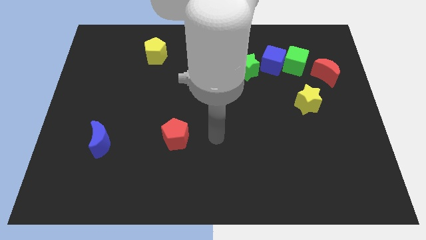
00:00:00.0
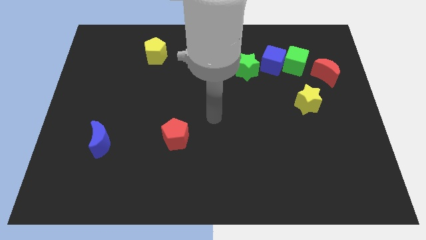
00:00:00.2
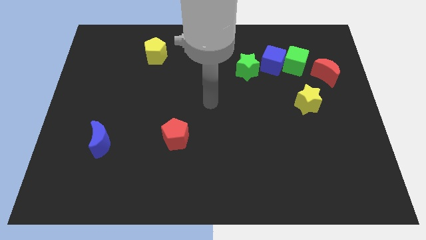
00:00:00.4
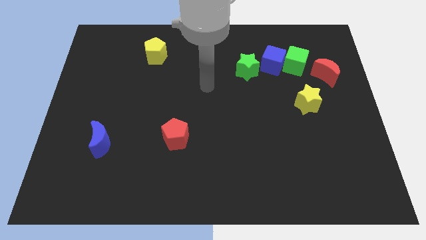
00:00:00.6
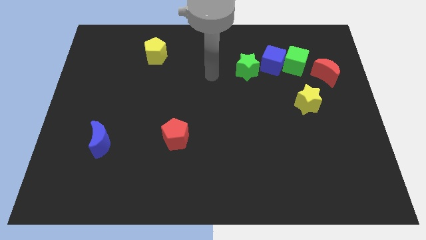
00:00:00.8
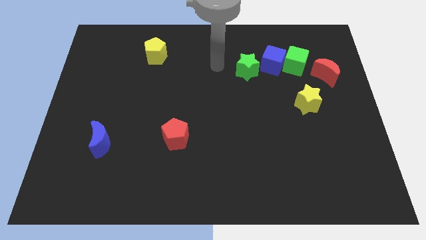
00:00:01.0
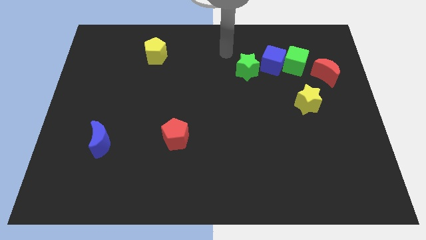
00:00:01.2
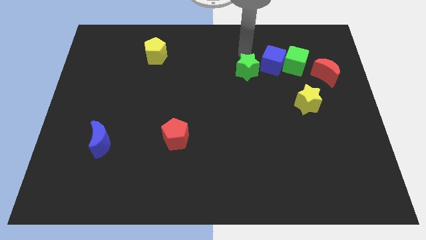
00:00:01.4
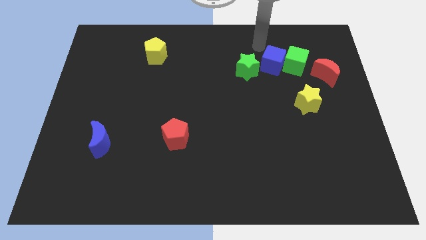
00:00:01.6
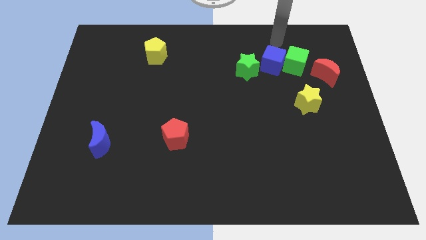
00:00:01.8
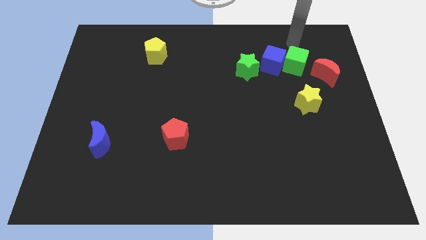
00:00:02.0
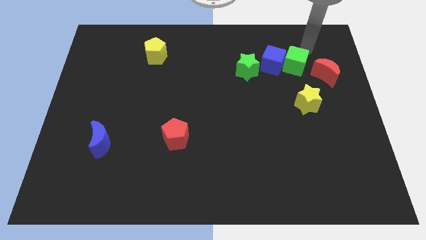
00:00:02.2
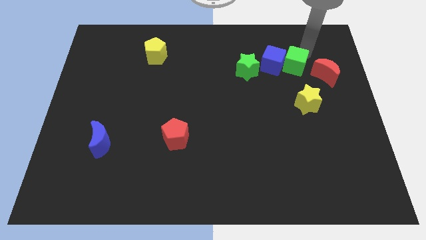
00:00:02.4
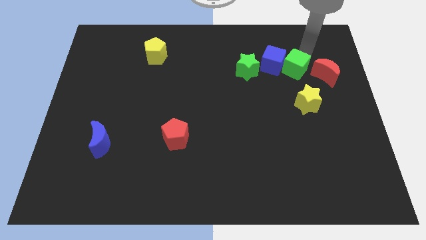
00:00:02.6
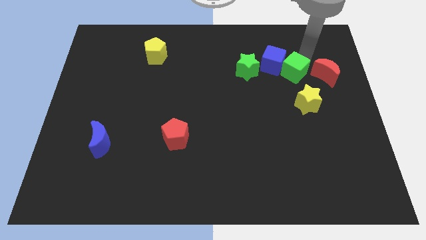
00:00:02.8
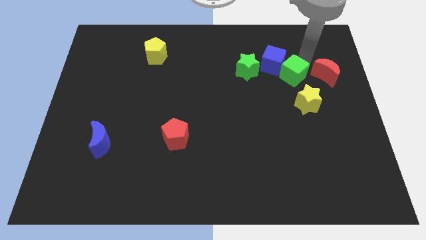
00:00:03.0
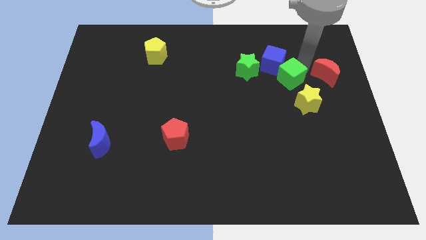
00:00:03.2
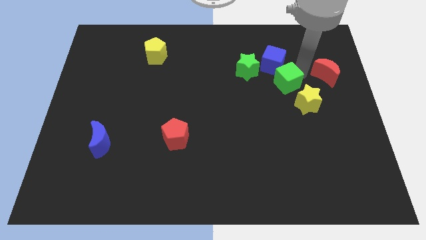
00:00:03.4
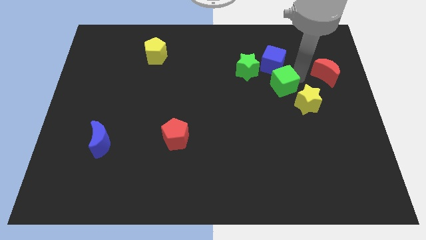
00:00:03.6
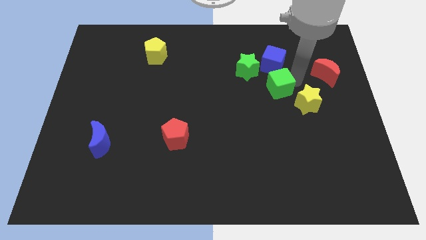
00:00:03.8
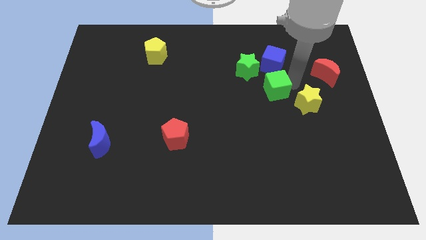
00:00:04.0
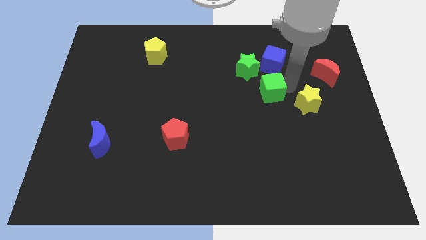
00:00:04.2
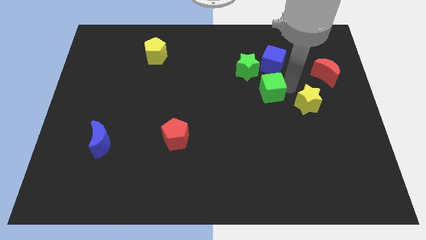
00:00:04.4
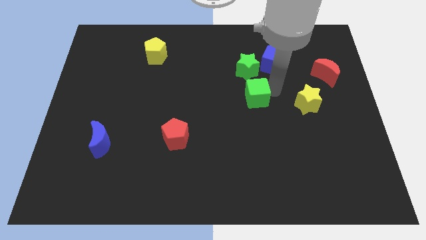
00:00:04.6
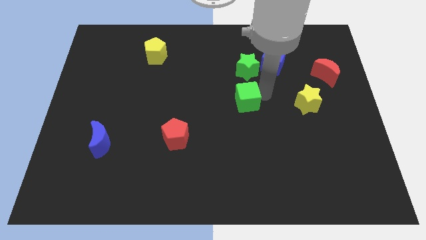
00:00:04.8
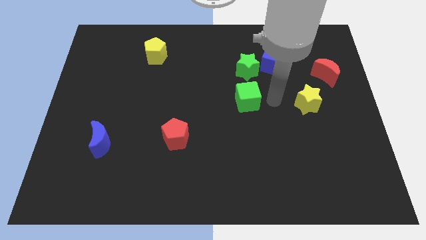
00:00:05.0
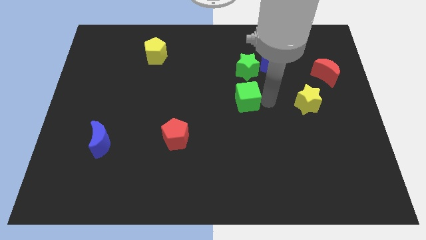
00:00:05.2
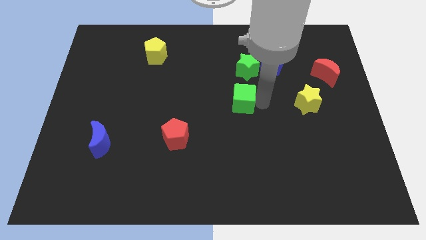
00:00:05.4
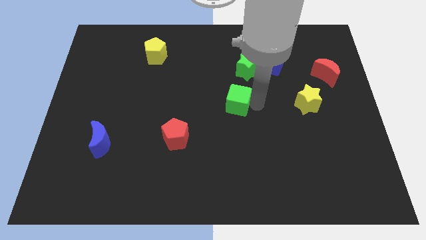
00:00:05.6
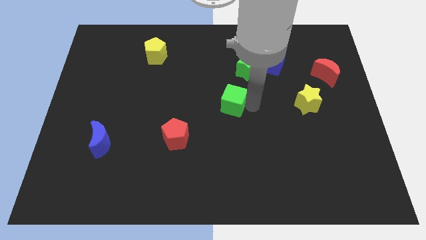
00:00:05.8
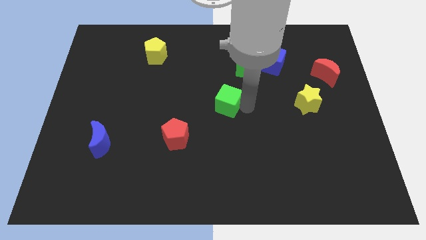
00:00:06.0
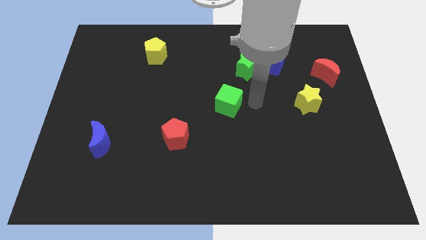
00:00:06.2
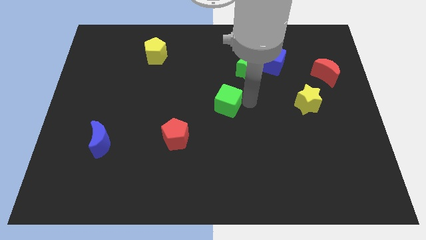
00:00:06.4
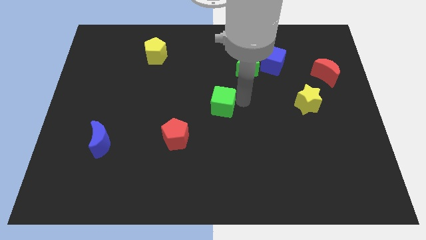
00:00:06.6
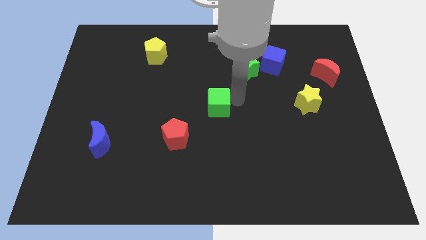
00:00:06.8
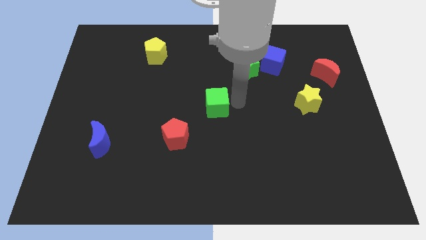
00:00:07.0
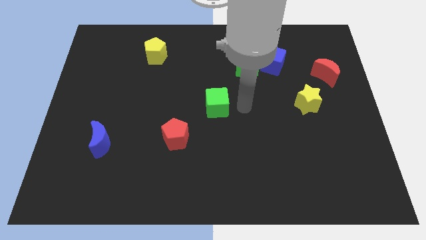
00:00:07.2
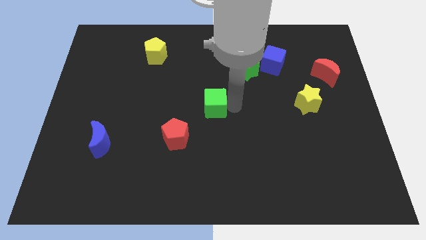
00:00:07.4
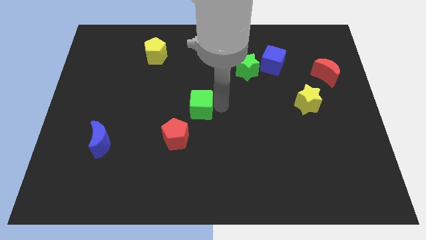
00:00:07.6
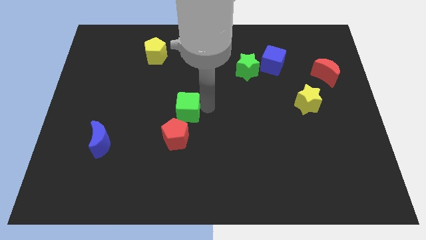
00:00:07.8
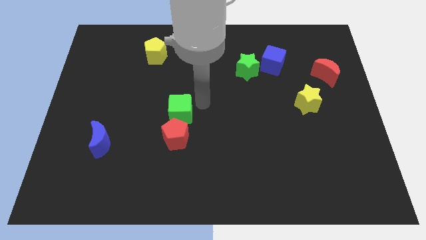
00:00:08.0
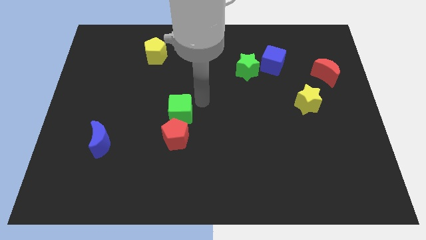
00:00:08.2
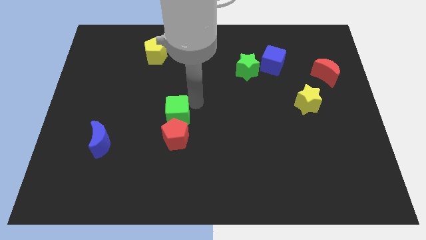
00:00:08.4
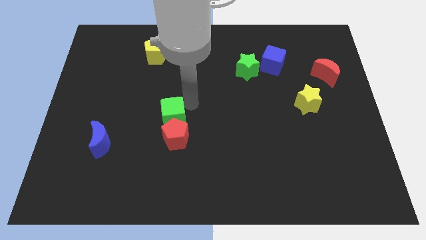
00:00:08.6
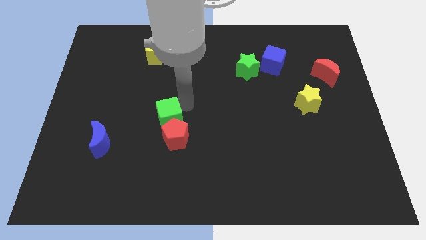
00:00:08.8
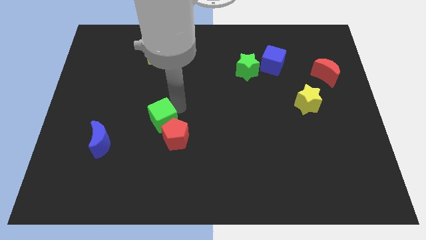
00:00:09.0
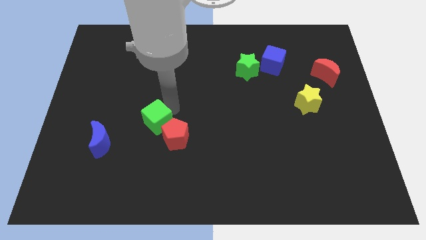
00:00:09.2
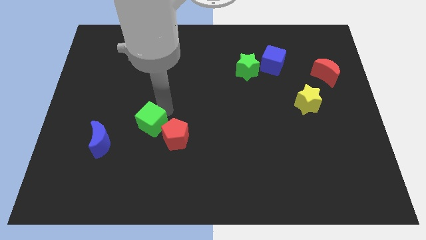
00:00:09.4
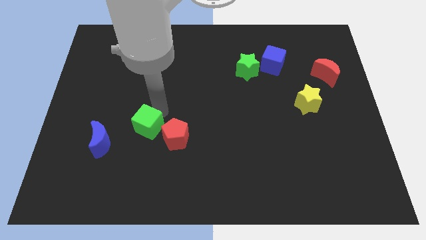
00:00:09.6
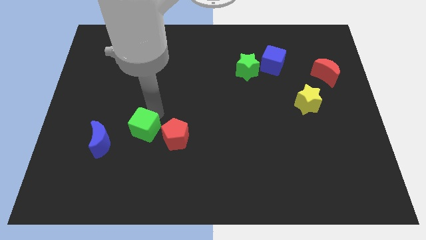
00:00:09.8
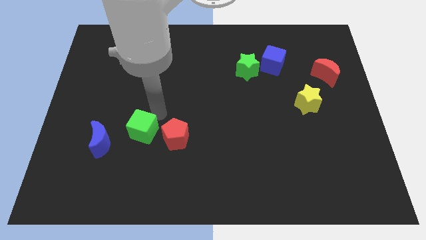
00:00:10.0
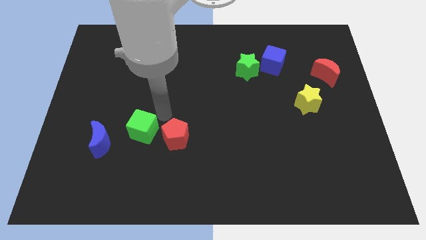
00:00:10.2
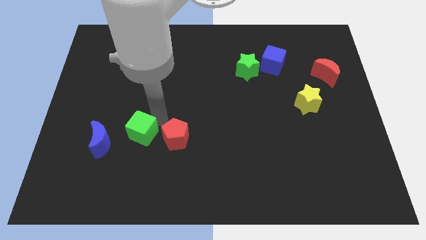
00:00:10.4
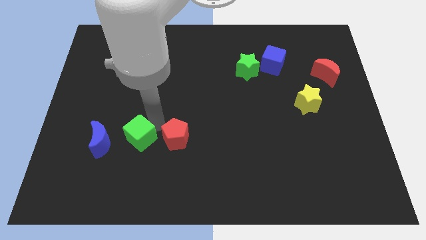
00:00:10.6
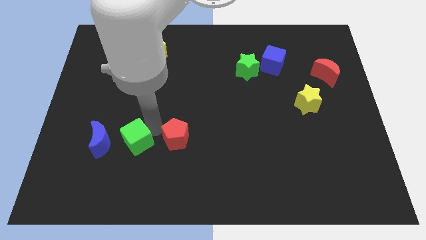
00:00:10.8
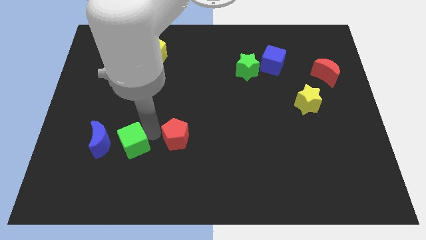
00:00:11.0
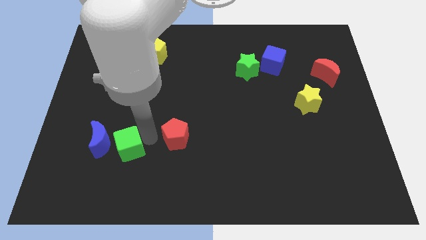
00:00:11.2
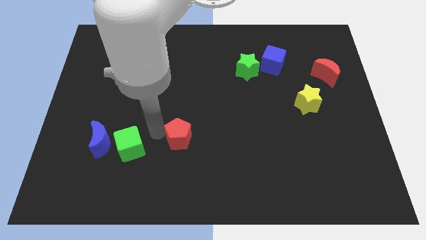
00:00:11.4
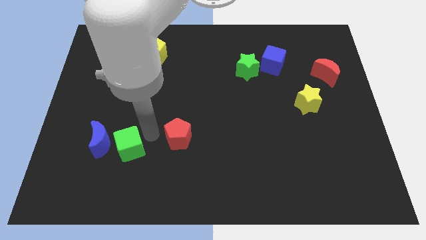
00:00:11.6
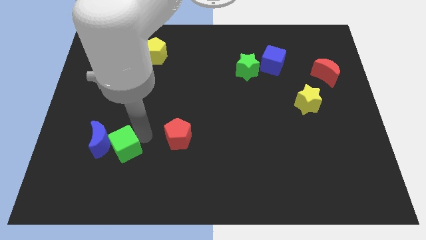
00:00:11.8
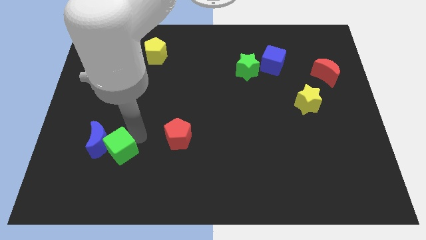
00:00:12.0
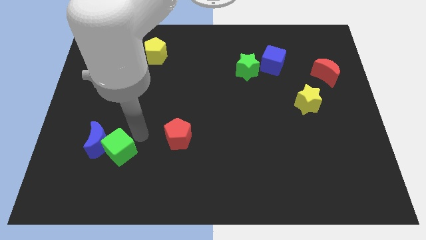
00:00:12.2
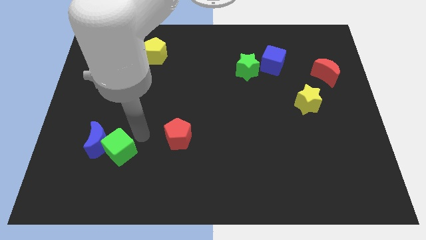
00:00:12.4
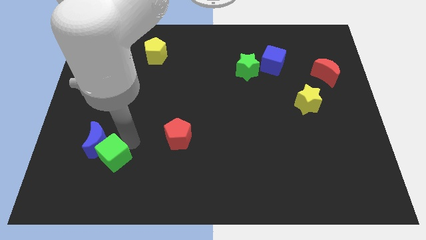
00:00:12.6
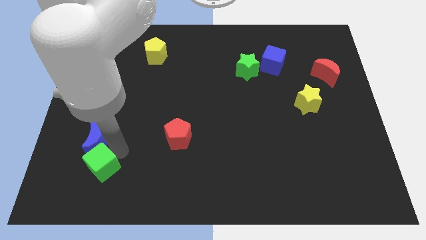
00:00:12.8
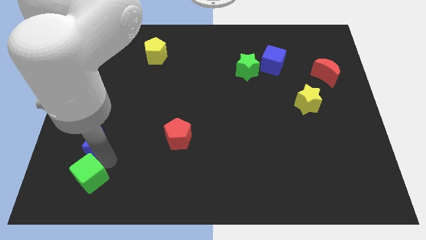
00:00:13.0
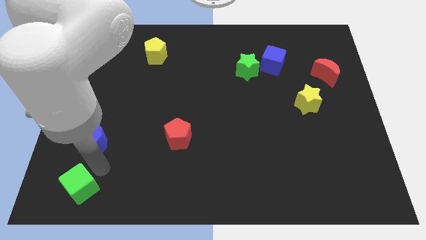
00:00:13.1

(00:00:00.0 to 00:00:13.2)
slide the green cube to the bottom left of the board
